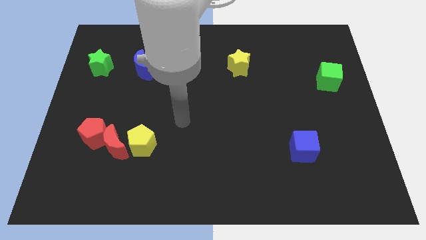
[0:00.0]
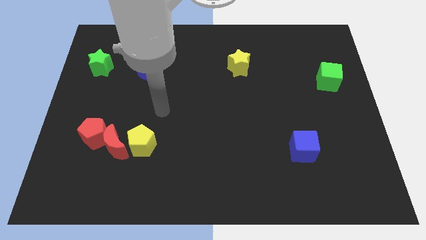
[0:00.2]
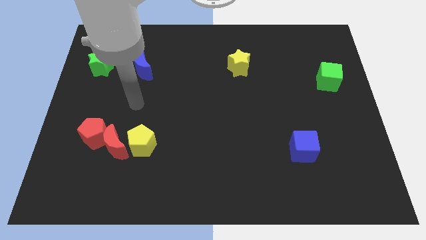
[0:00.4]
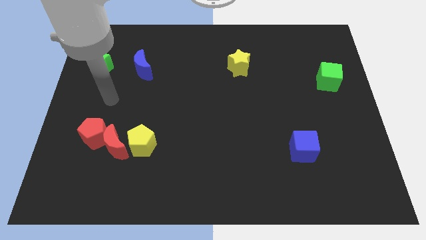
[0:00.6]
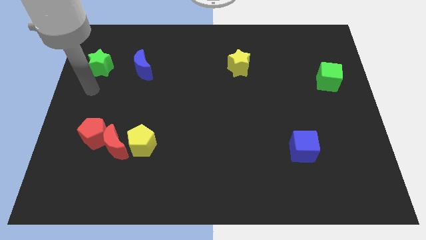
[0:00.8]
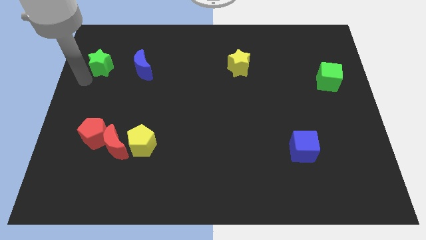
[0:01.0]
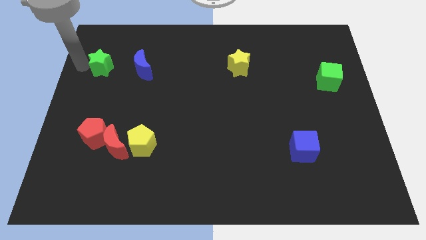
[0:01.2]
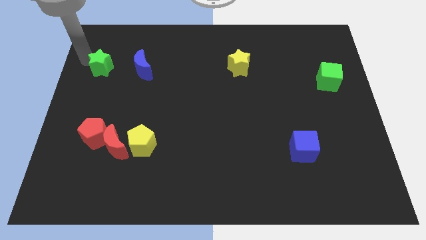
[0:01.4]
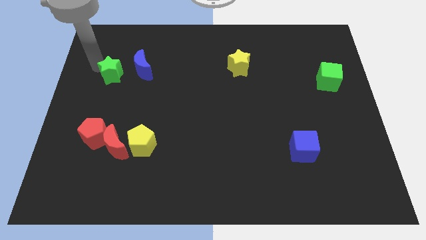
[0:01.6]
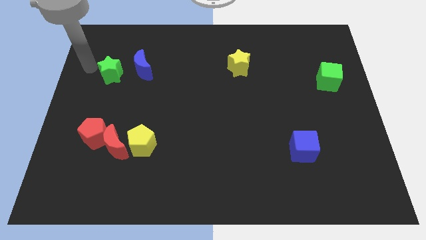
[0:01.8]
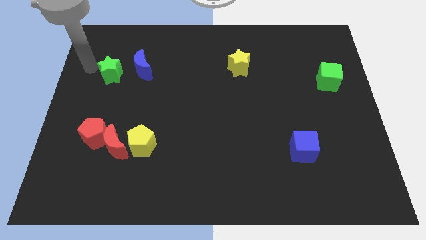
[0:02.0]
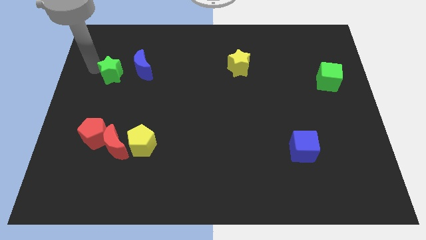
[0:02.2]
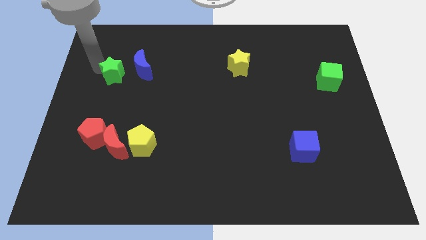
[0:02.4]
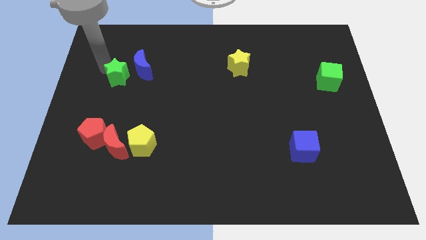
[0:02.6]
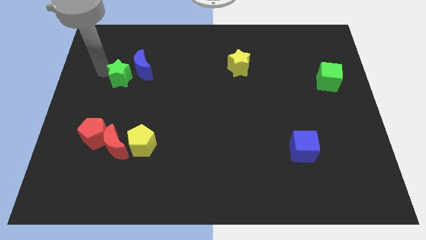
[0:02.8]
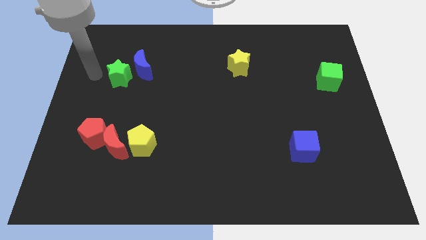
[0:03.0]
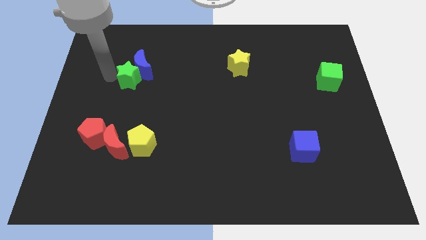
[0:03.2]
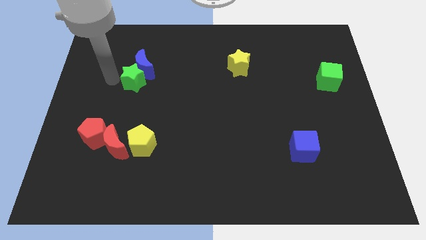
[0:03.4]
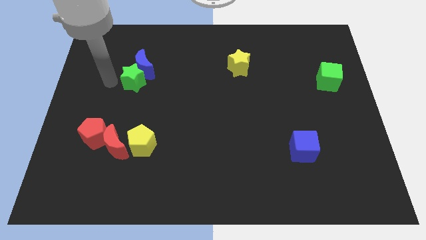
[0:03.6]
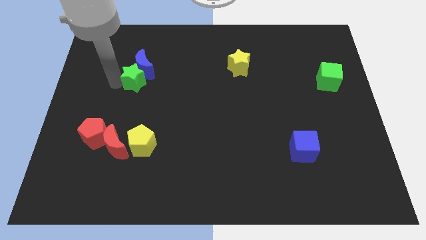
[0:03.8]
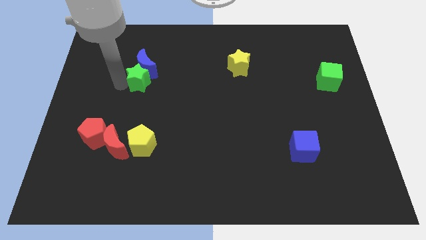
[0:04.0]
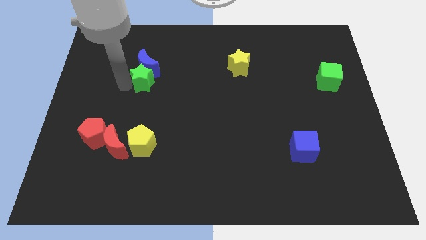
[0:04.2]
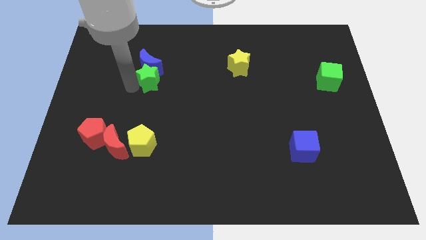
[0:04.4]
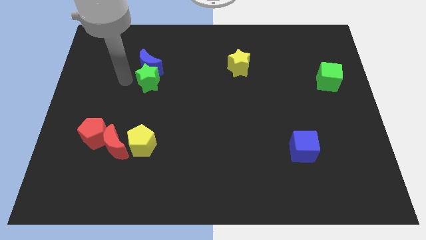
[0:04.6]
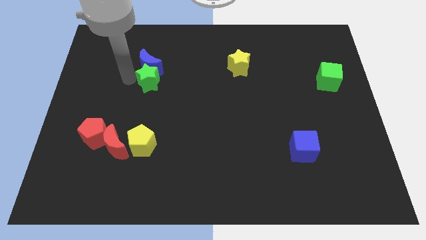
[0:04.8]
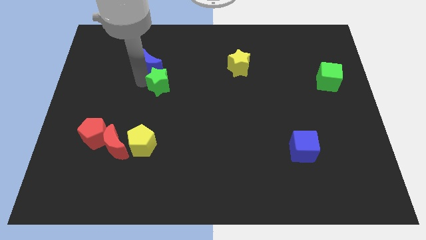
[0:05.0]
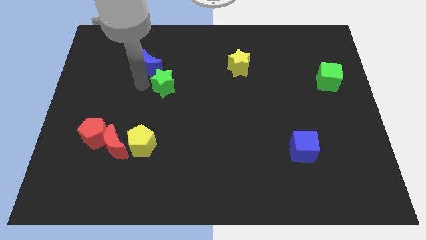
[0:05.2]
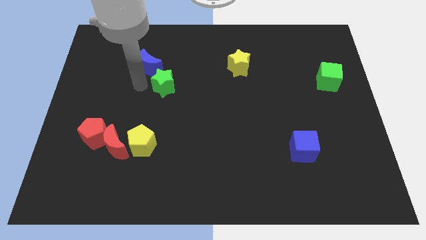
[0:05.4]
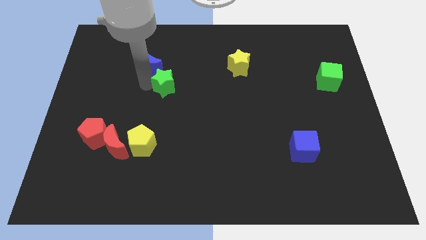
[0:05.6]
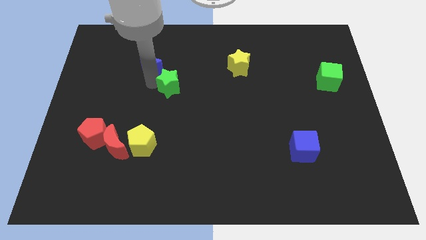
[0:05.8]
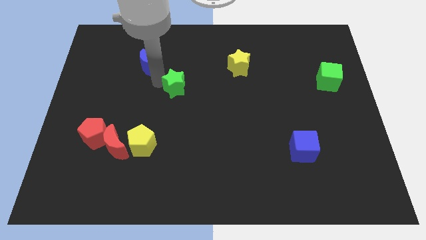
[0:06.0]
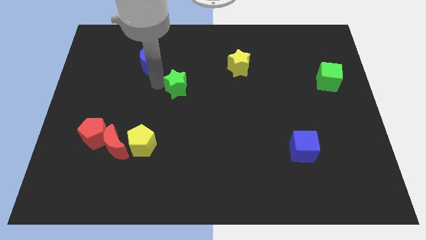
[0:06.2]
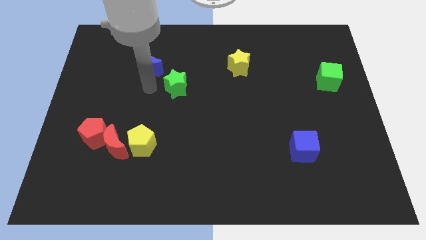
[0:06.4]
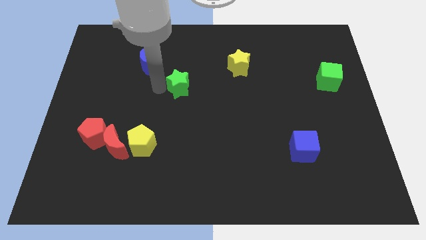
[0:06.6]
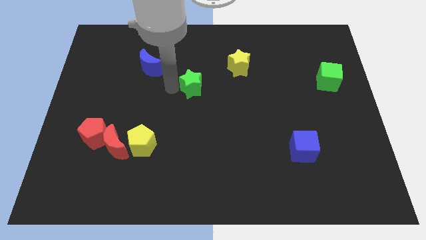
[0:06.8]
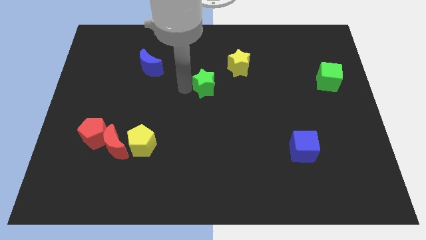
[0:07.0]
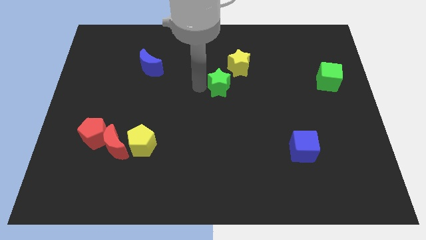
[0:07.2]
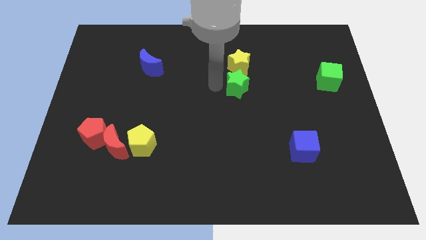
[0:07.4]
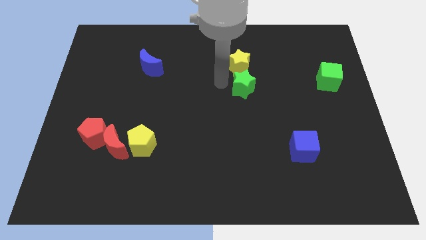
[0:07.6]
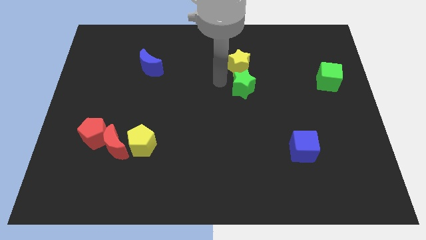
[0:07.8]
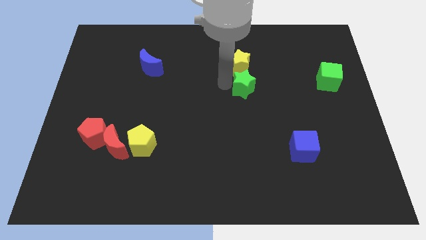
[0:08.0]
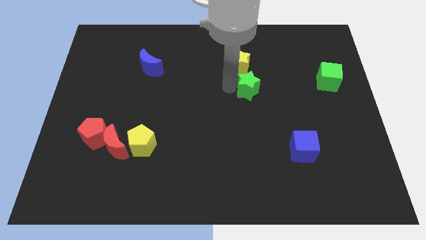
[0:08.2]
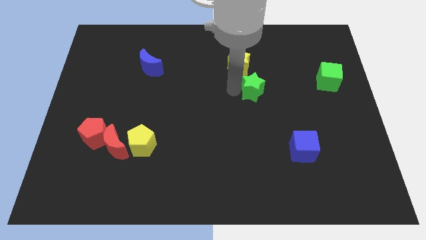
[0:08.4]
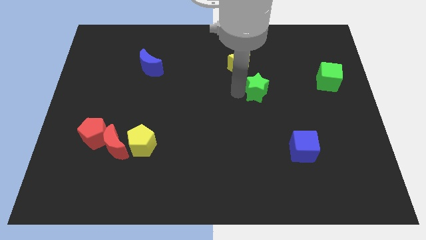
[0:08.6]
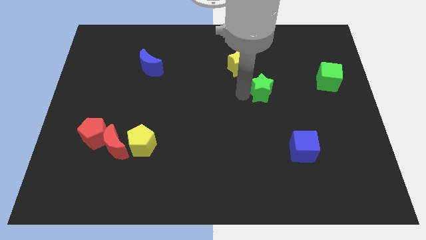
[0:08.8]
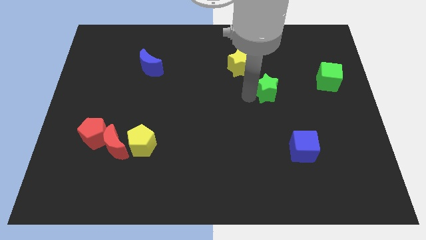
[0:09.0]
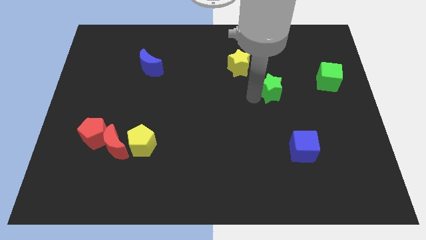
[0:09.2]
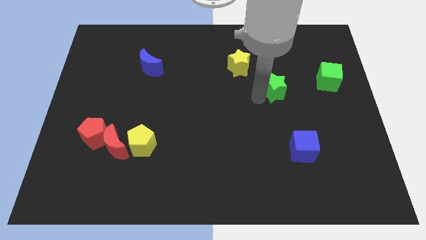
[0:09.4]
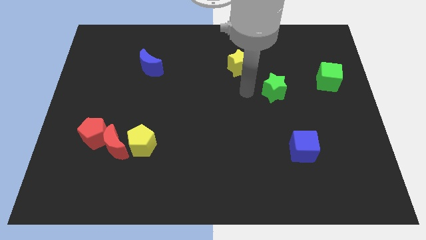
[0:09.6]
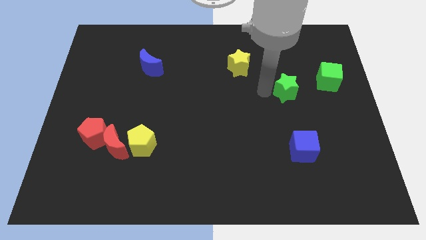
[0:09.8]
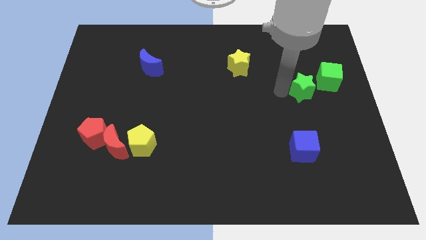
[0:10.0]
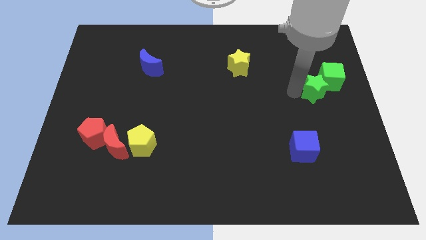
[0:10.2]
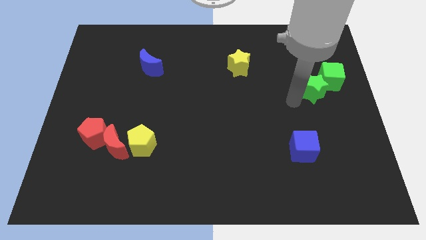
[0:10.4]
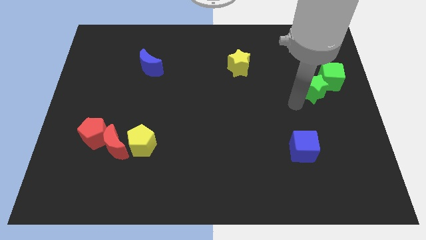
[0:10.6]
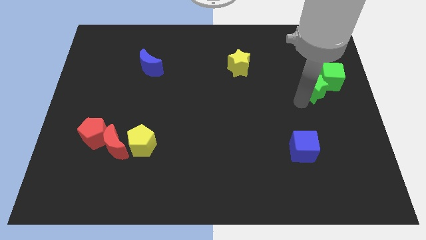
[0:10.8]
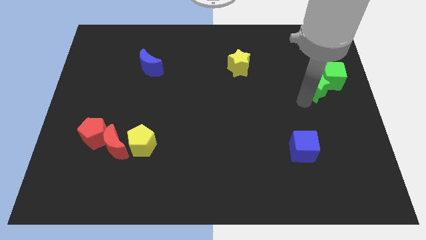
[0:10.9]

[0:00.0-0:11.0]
push the green star towards the green cube

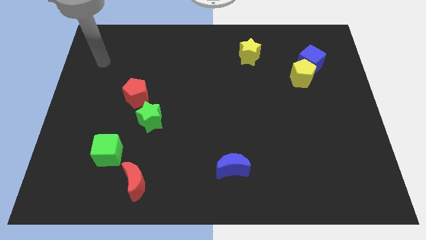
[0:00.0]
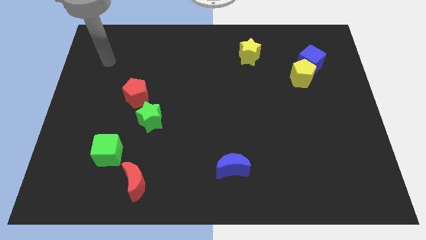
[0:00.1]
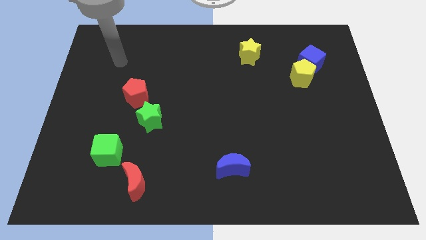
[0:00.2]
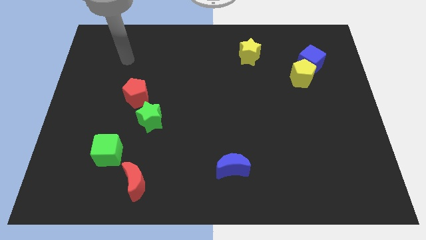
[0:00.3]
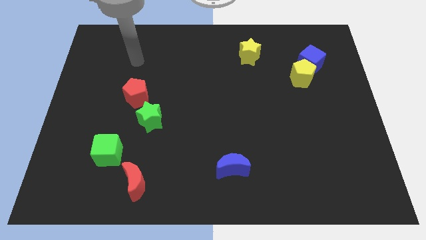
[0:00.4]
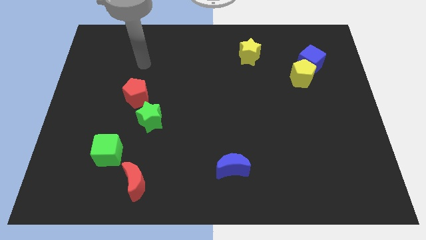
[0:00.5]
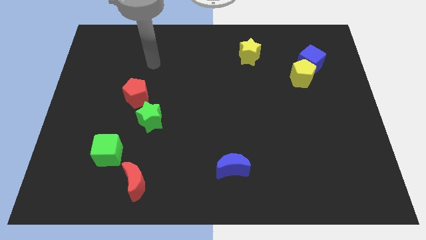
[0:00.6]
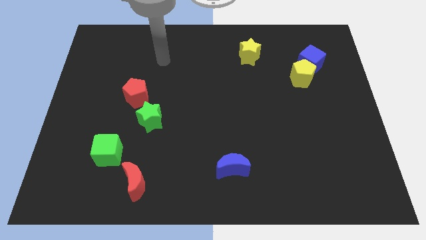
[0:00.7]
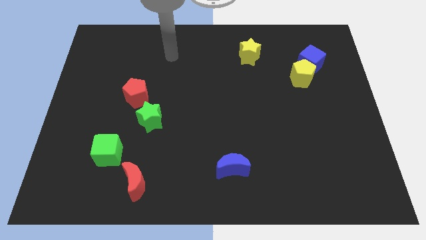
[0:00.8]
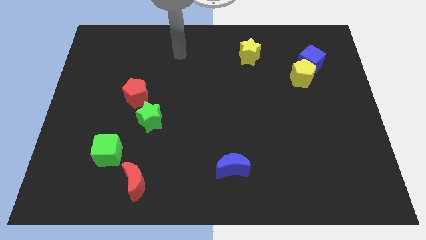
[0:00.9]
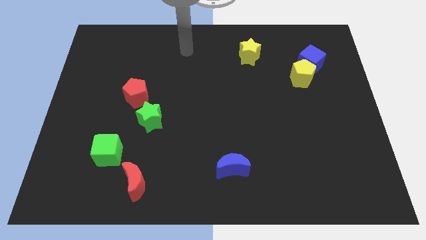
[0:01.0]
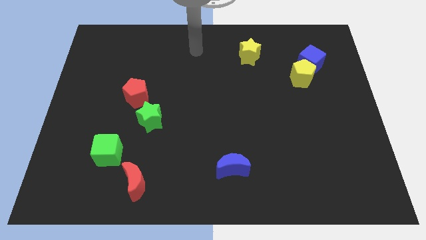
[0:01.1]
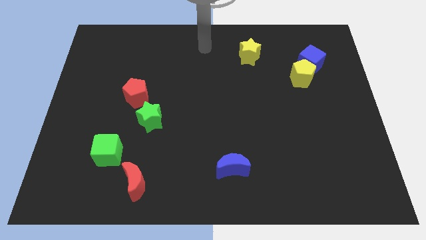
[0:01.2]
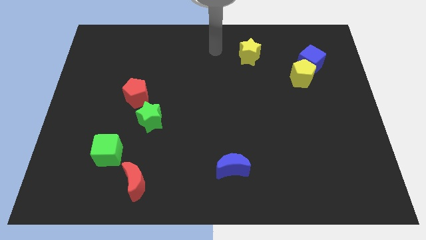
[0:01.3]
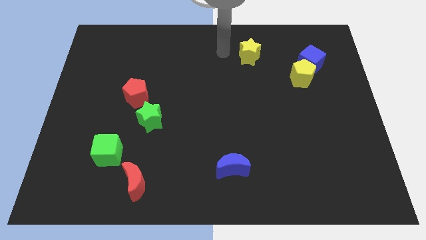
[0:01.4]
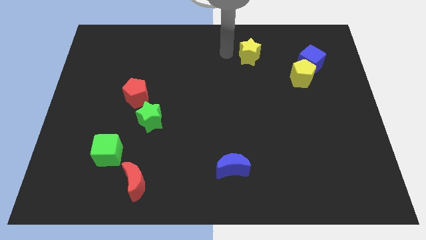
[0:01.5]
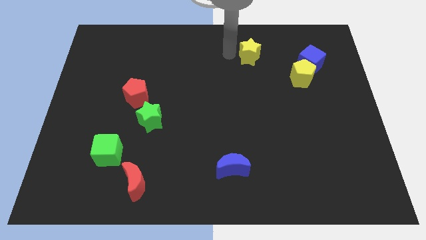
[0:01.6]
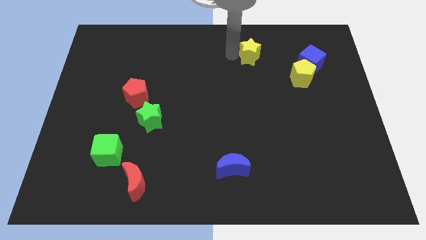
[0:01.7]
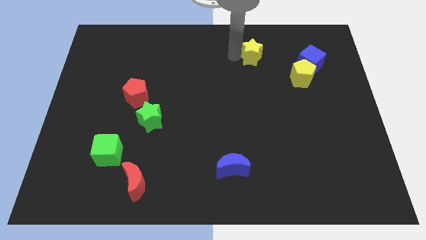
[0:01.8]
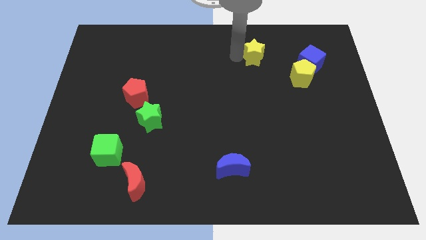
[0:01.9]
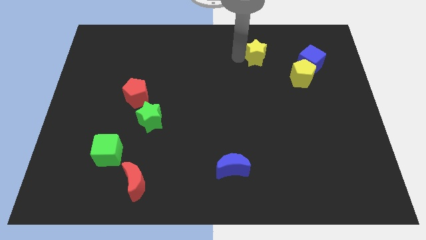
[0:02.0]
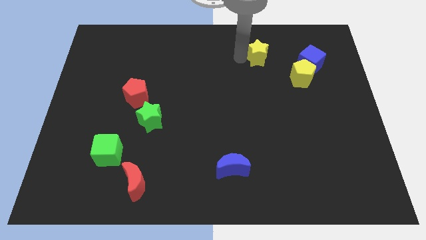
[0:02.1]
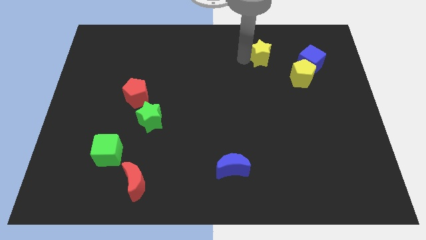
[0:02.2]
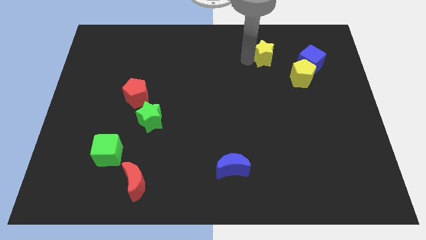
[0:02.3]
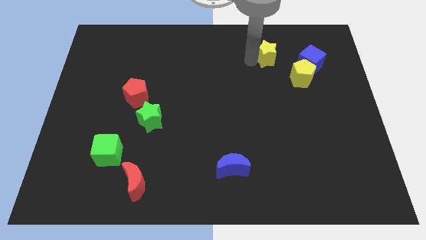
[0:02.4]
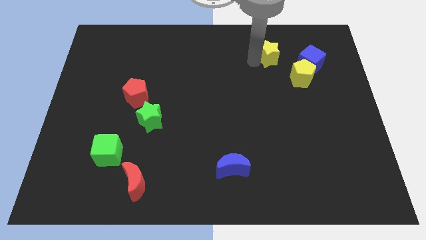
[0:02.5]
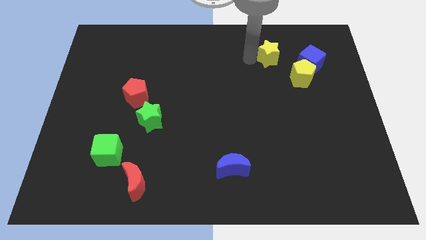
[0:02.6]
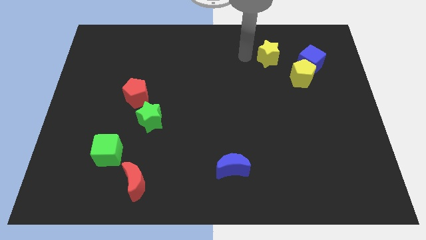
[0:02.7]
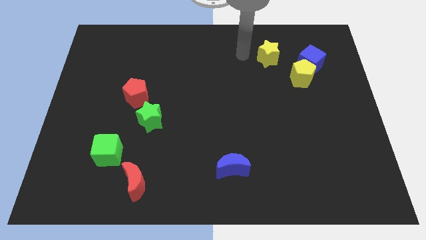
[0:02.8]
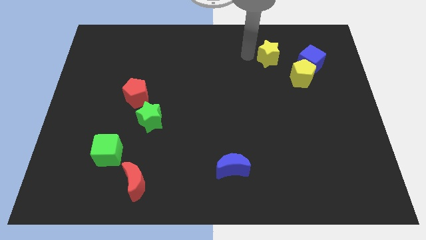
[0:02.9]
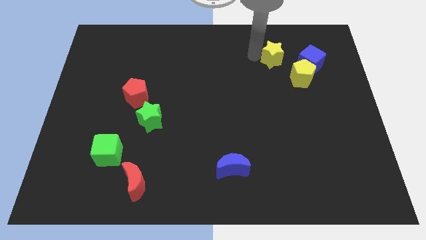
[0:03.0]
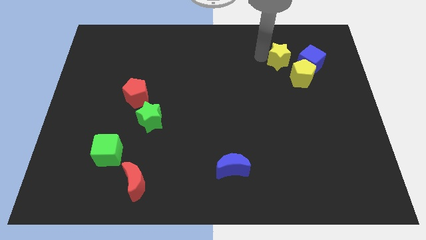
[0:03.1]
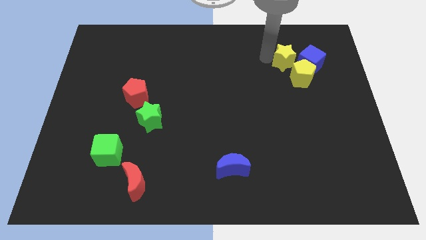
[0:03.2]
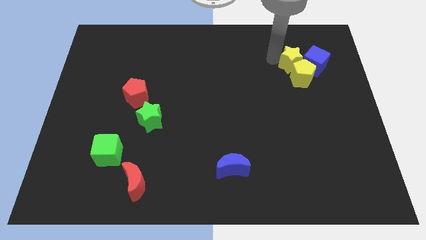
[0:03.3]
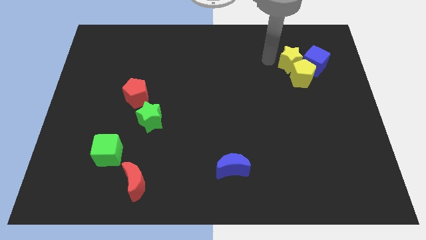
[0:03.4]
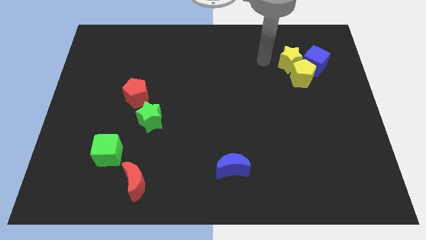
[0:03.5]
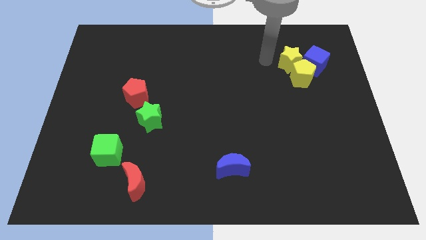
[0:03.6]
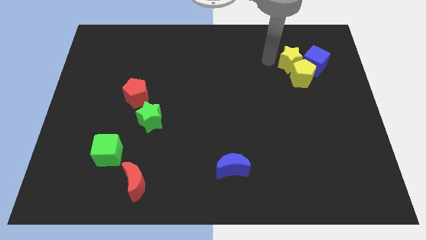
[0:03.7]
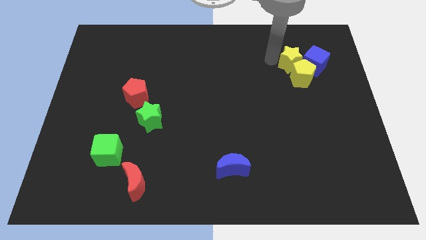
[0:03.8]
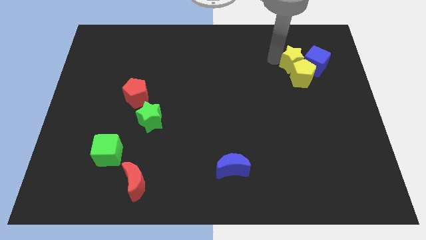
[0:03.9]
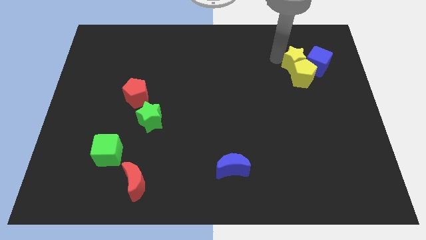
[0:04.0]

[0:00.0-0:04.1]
put the yellow star close to the blue cube
